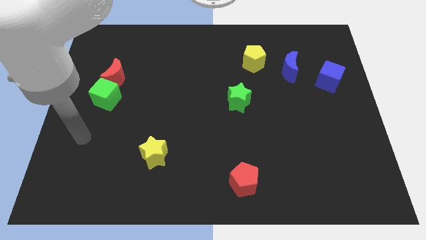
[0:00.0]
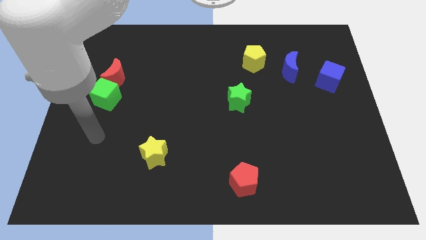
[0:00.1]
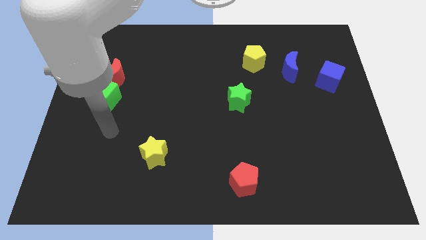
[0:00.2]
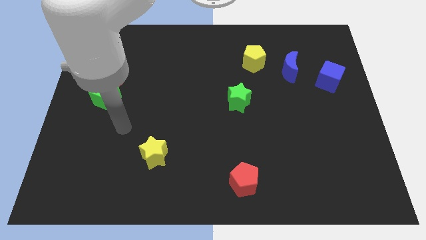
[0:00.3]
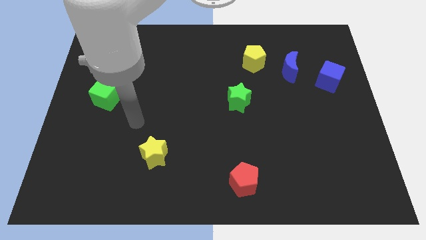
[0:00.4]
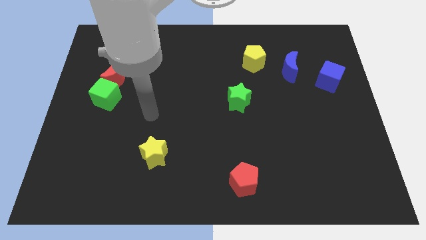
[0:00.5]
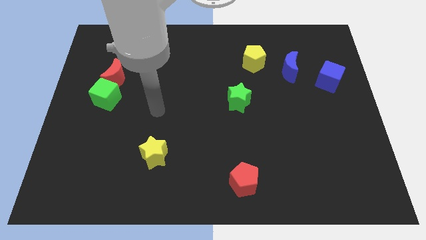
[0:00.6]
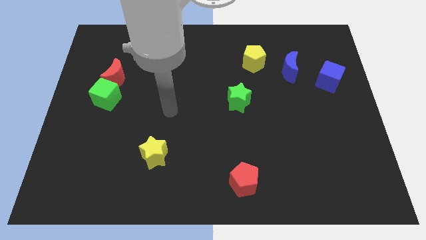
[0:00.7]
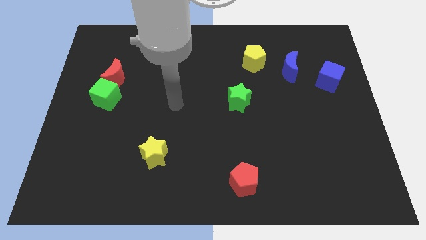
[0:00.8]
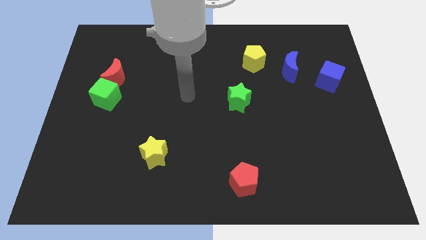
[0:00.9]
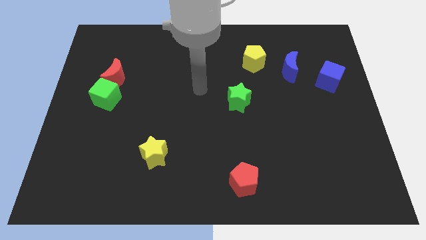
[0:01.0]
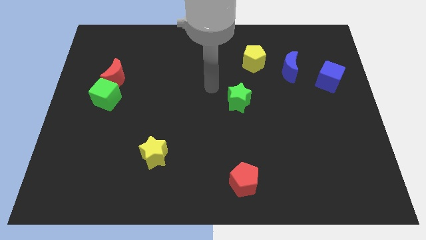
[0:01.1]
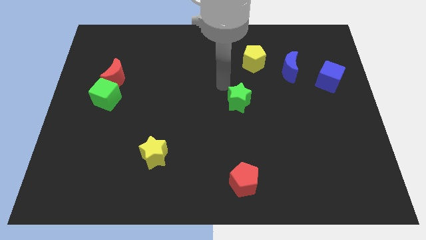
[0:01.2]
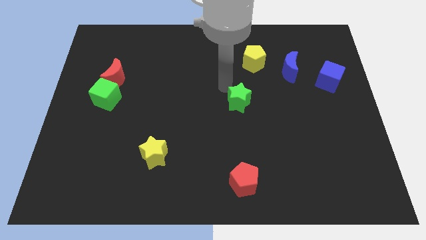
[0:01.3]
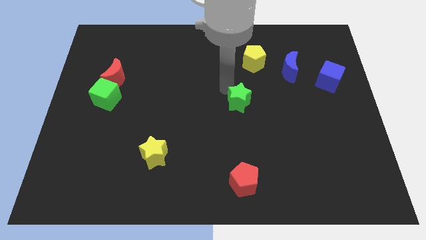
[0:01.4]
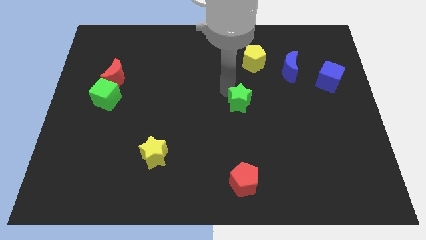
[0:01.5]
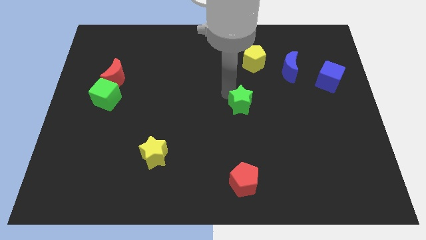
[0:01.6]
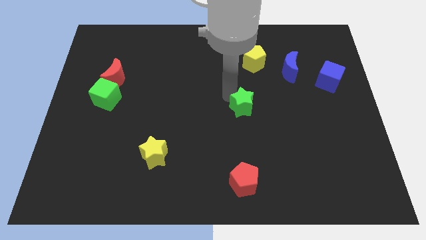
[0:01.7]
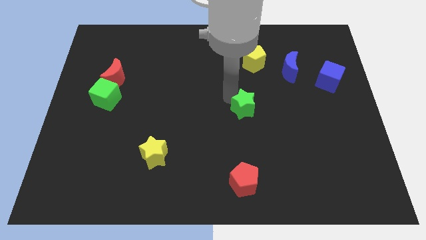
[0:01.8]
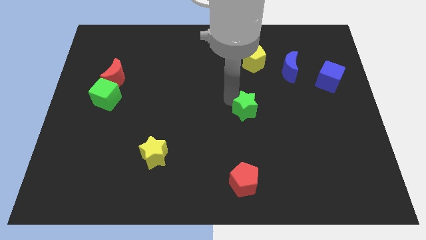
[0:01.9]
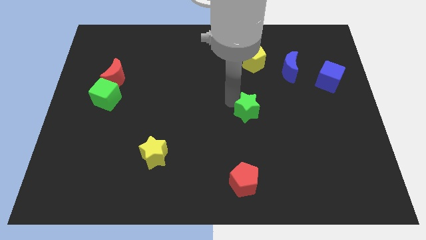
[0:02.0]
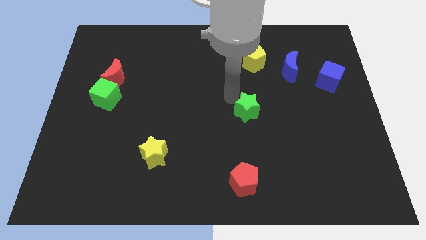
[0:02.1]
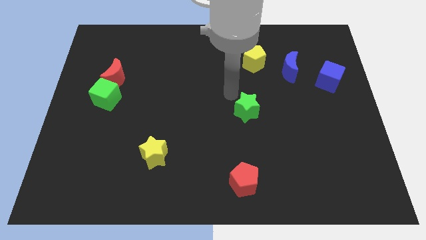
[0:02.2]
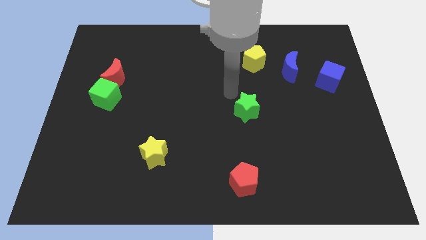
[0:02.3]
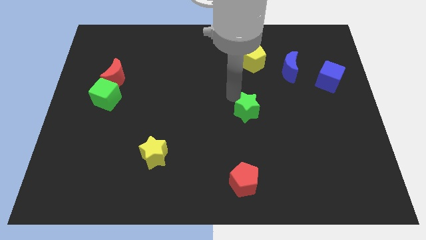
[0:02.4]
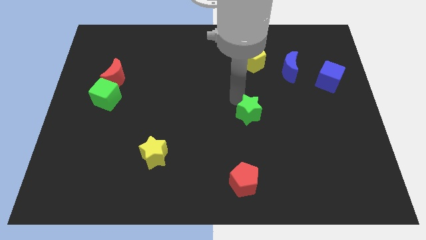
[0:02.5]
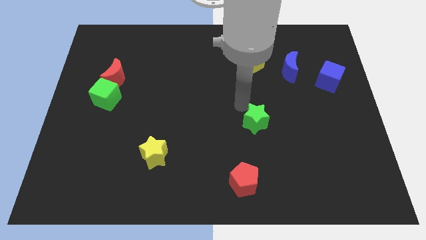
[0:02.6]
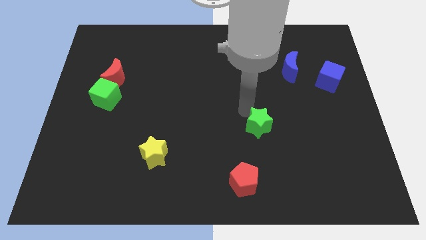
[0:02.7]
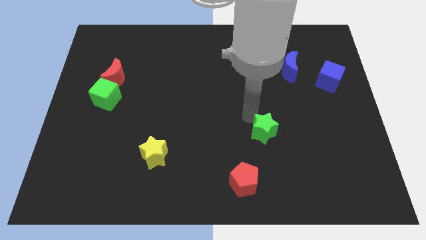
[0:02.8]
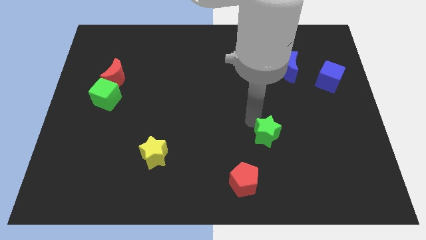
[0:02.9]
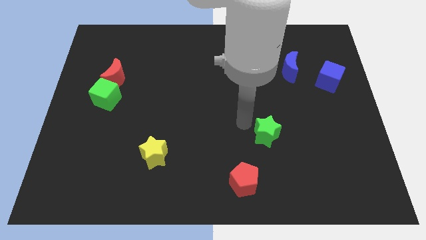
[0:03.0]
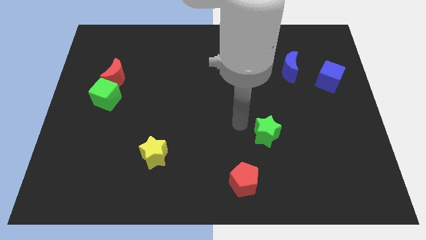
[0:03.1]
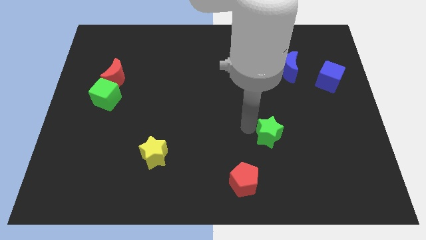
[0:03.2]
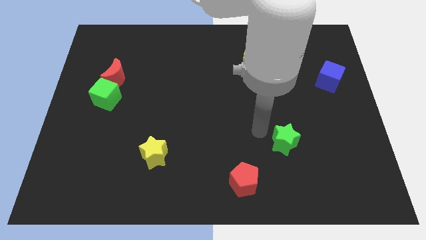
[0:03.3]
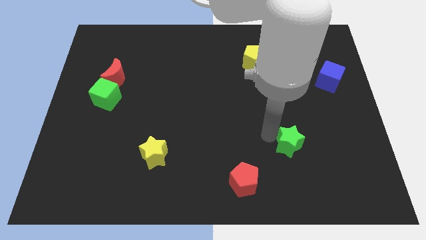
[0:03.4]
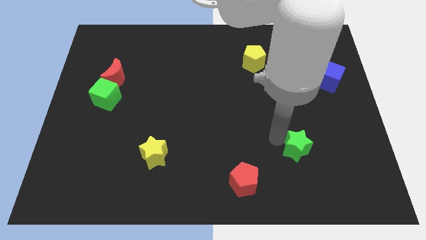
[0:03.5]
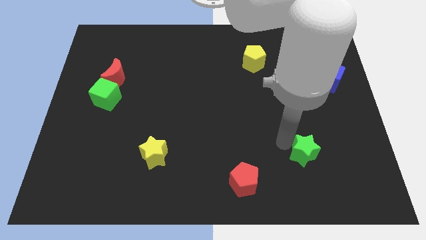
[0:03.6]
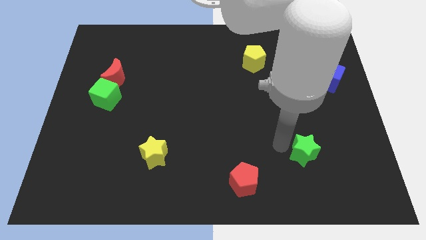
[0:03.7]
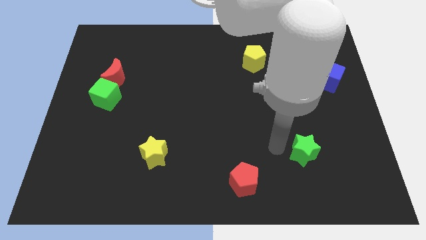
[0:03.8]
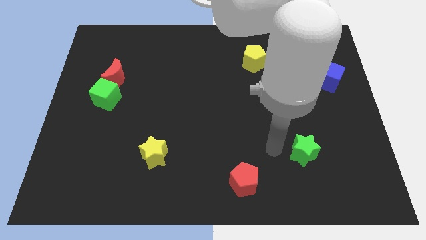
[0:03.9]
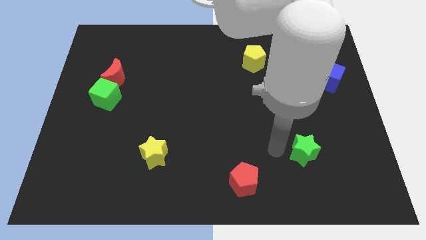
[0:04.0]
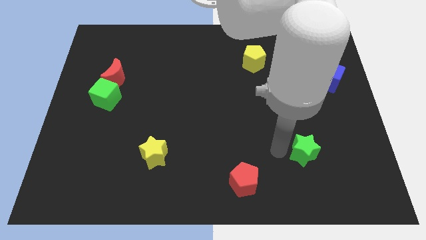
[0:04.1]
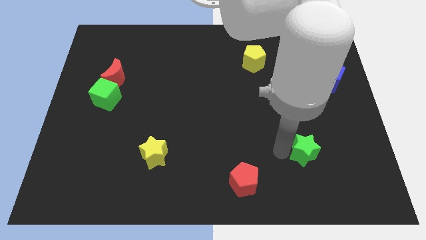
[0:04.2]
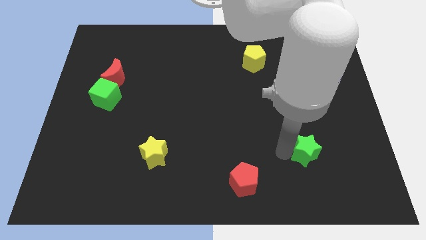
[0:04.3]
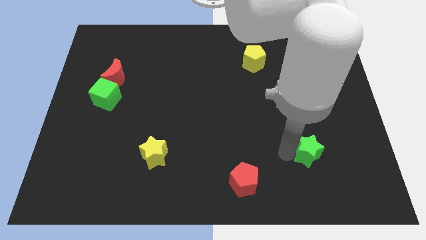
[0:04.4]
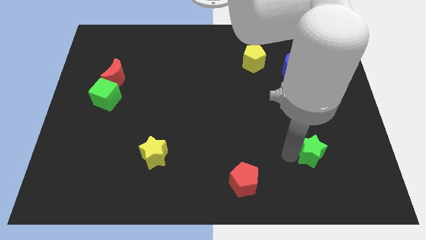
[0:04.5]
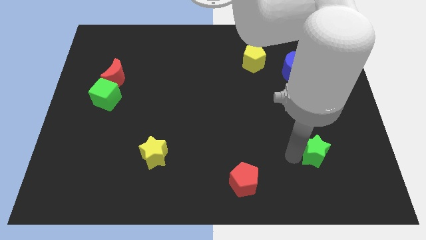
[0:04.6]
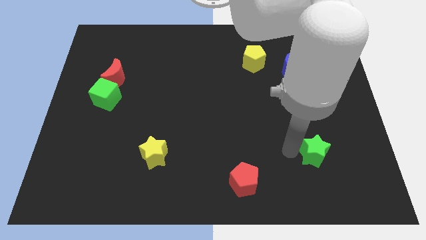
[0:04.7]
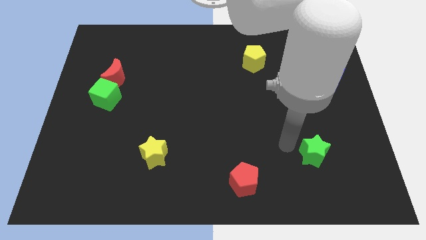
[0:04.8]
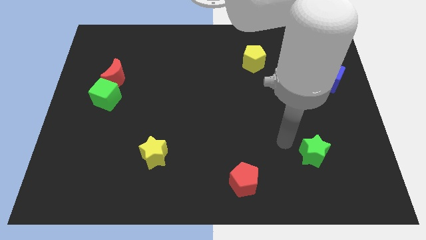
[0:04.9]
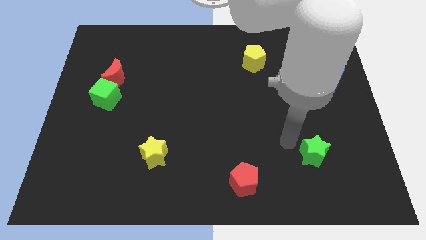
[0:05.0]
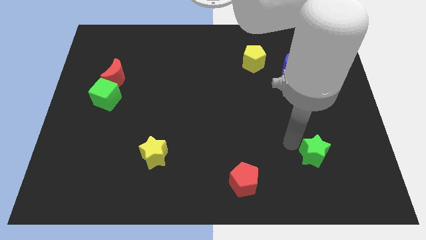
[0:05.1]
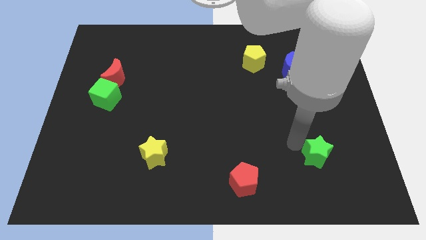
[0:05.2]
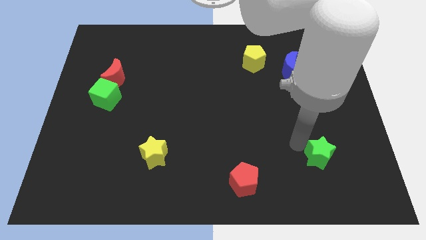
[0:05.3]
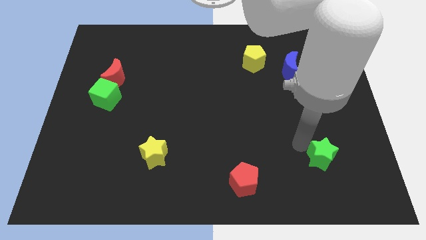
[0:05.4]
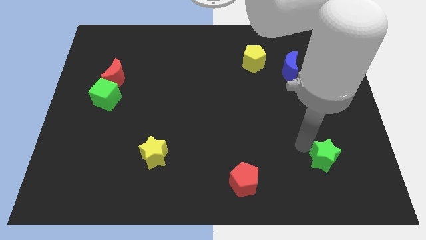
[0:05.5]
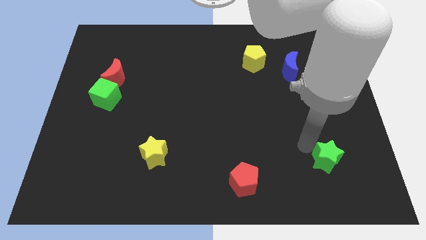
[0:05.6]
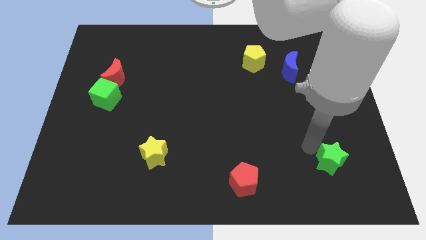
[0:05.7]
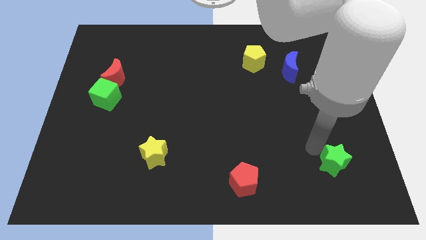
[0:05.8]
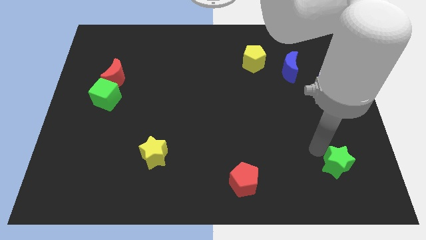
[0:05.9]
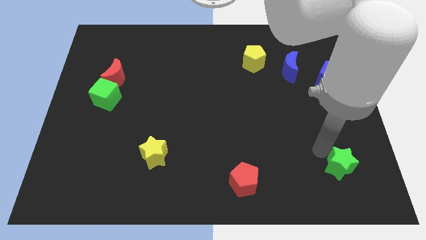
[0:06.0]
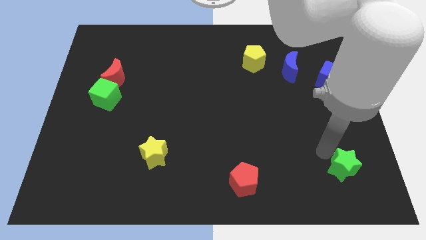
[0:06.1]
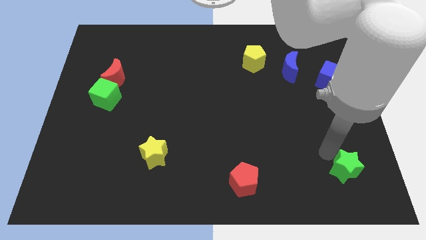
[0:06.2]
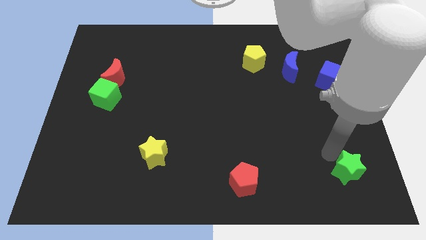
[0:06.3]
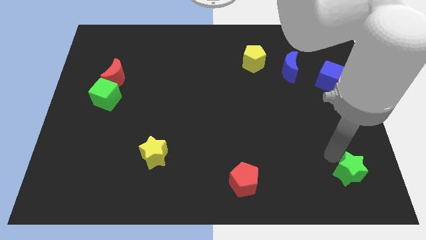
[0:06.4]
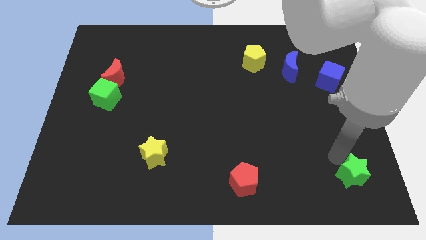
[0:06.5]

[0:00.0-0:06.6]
move the green star to the bottom right
